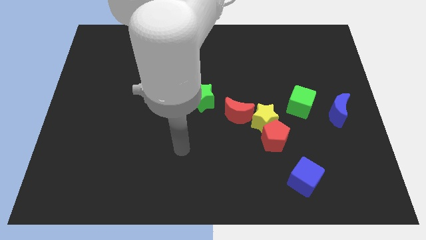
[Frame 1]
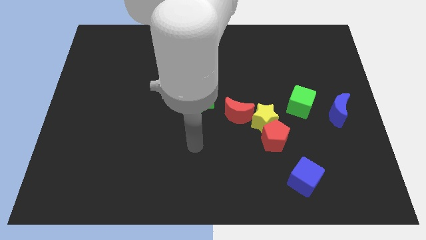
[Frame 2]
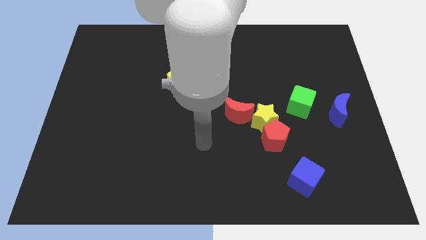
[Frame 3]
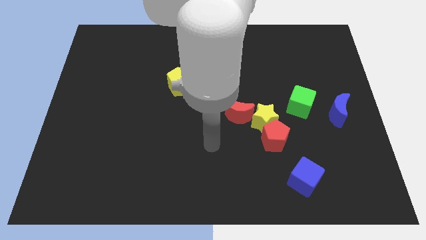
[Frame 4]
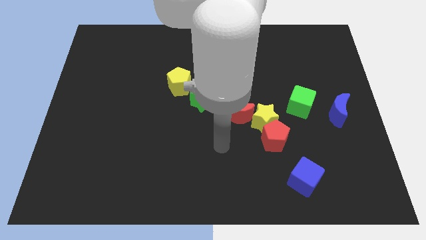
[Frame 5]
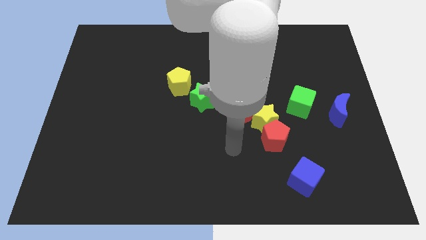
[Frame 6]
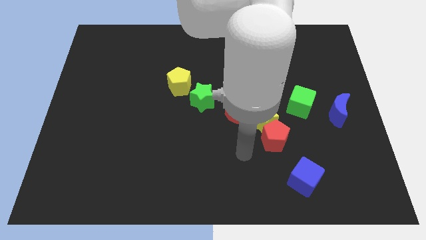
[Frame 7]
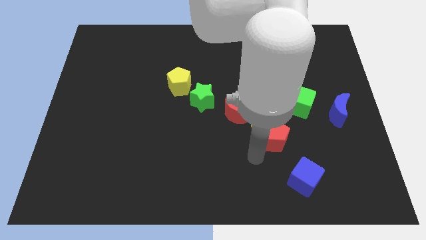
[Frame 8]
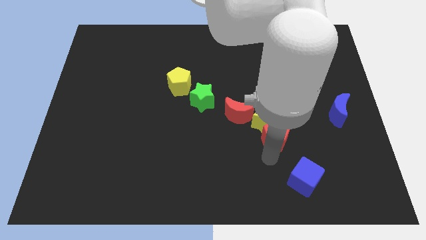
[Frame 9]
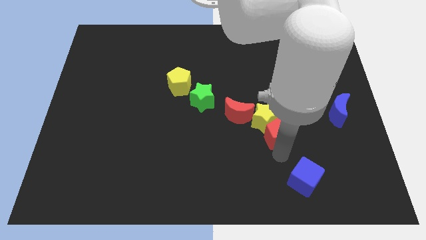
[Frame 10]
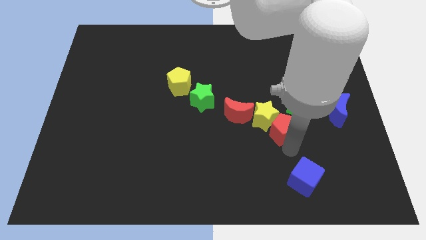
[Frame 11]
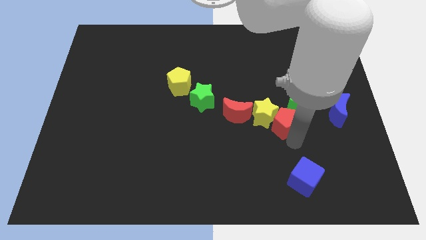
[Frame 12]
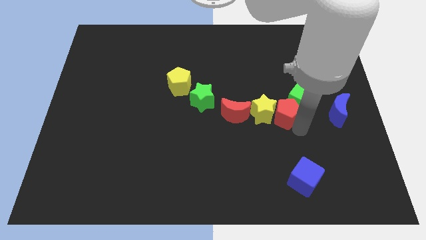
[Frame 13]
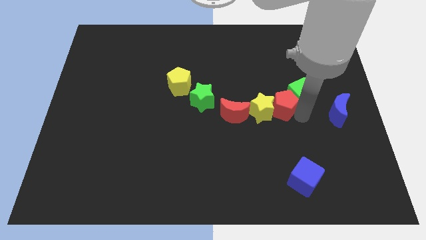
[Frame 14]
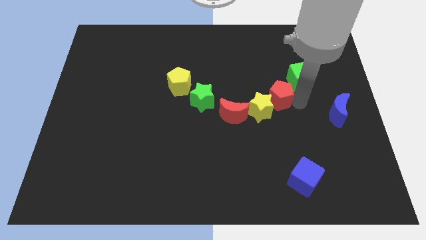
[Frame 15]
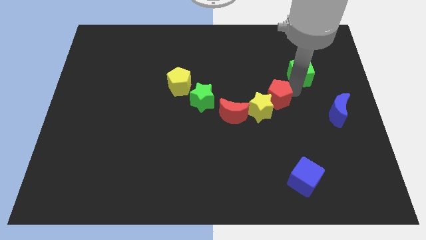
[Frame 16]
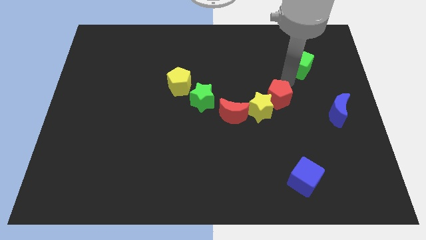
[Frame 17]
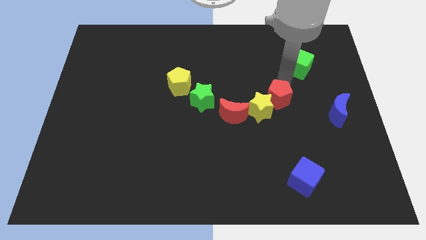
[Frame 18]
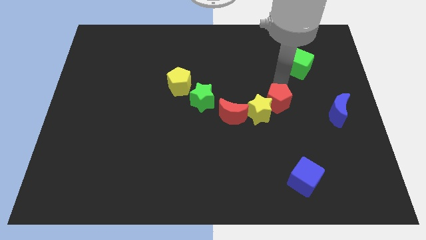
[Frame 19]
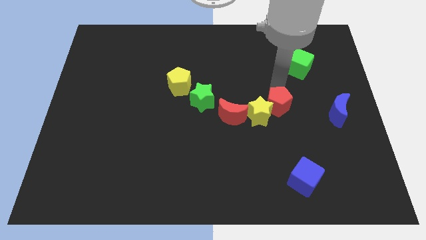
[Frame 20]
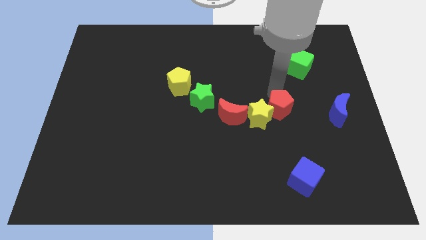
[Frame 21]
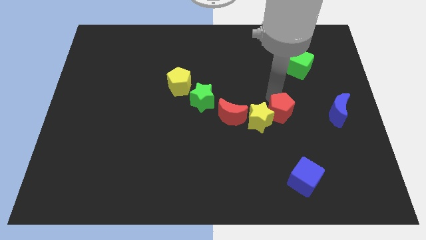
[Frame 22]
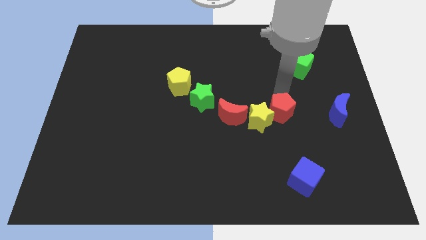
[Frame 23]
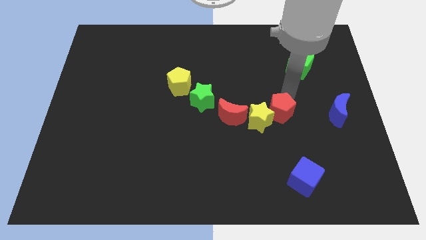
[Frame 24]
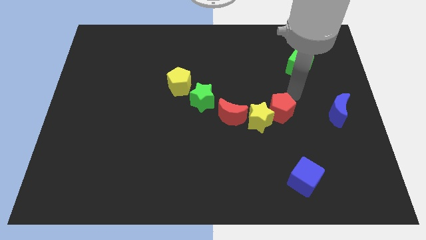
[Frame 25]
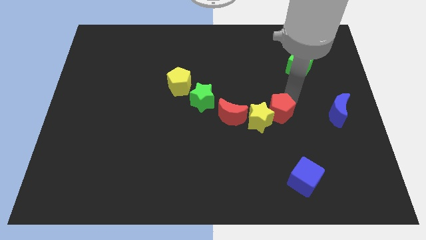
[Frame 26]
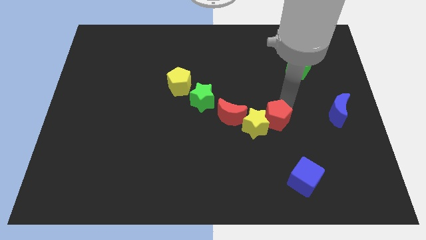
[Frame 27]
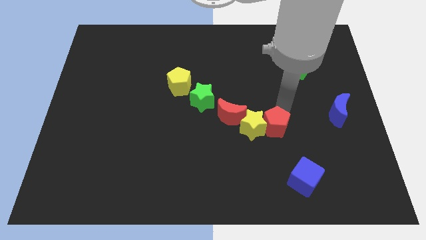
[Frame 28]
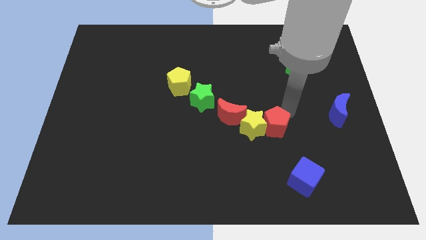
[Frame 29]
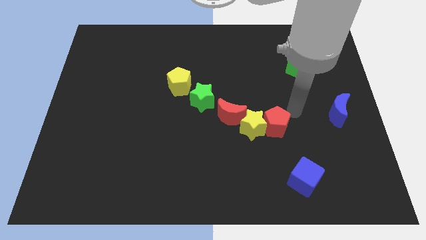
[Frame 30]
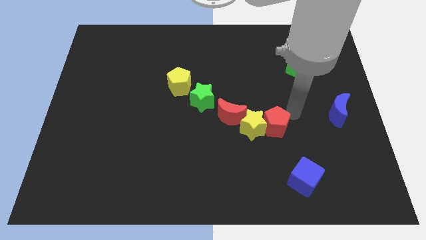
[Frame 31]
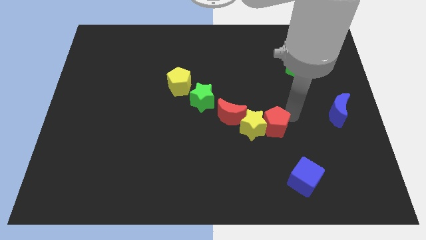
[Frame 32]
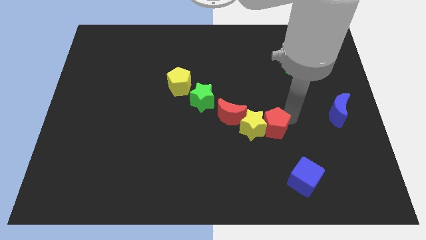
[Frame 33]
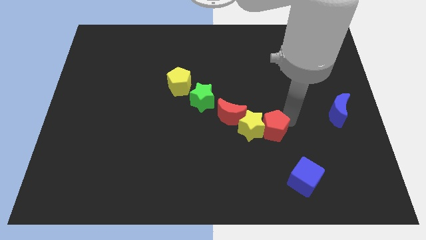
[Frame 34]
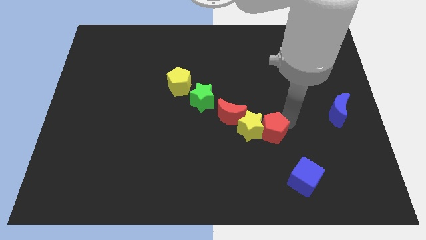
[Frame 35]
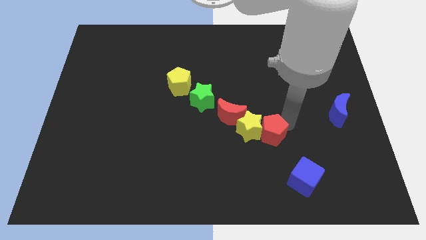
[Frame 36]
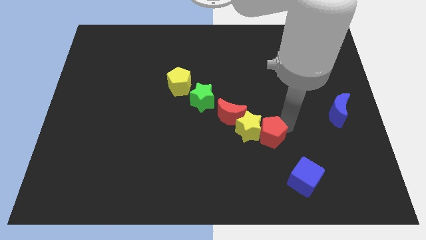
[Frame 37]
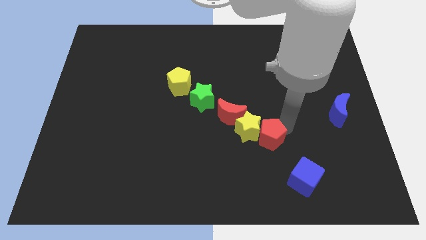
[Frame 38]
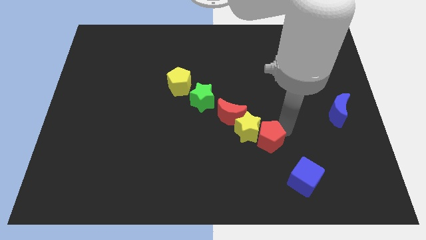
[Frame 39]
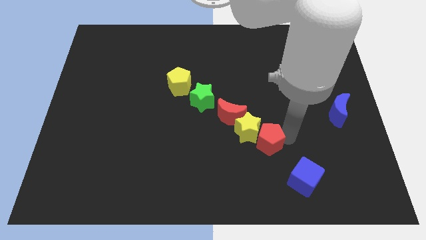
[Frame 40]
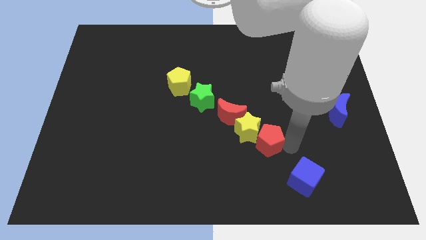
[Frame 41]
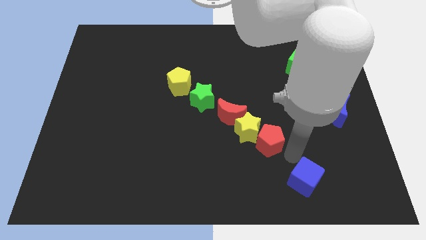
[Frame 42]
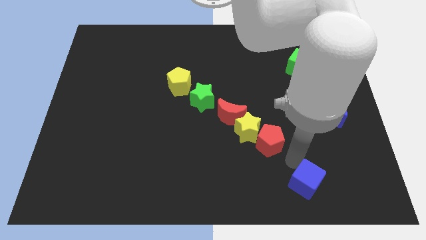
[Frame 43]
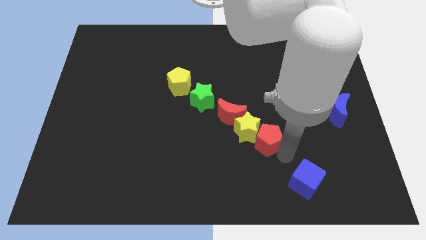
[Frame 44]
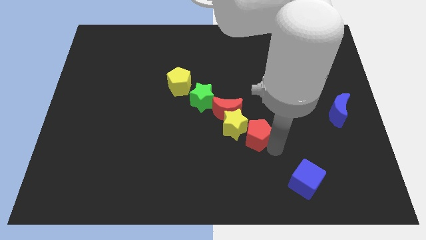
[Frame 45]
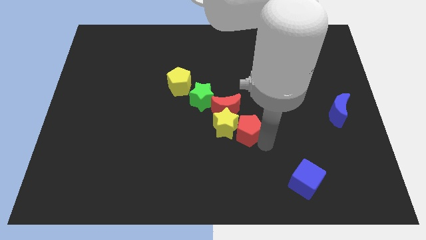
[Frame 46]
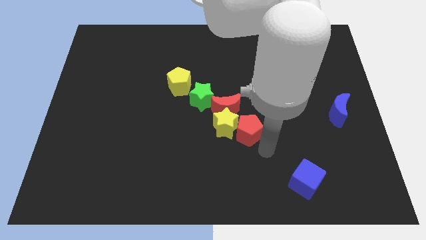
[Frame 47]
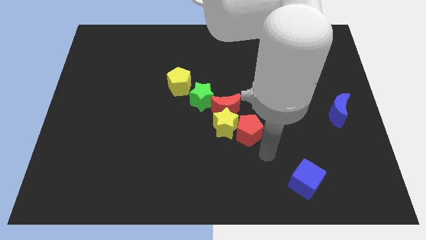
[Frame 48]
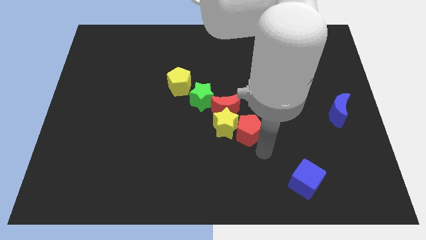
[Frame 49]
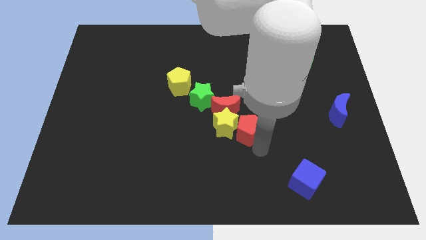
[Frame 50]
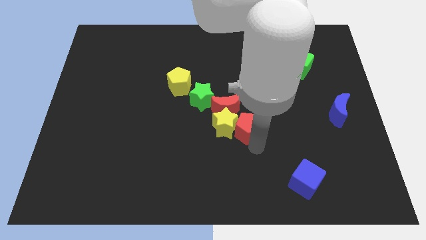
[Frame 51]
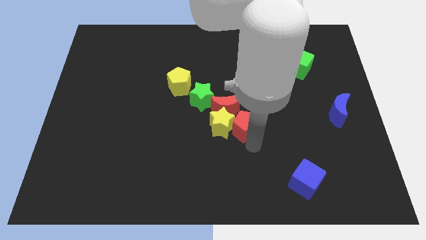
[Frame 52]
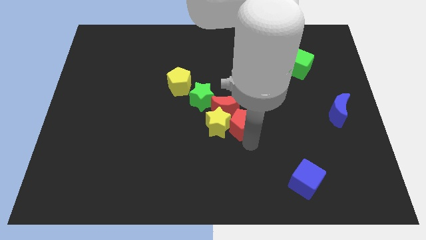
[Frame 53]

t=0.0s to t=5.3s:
push the red pentagon to the red moon

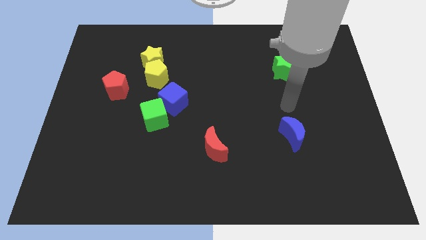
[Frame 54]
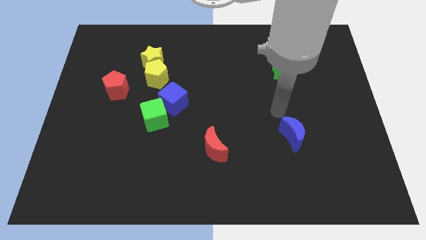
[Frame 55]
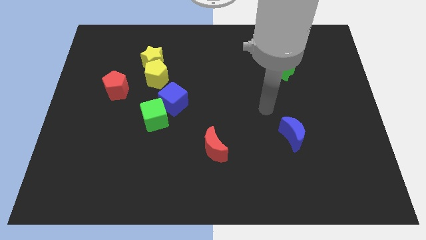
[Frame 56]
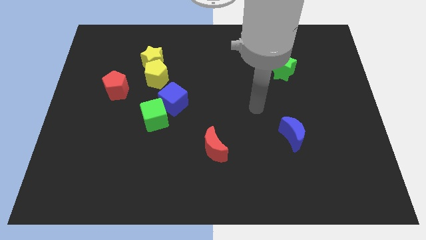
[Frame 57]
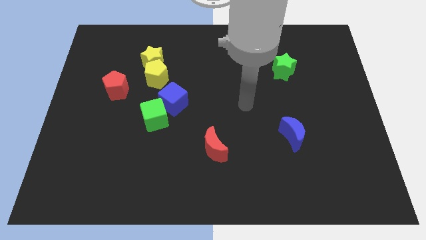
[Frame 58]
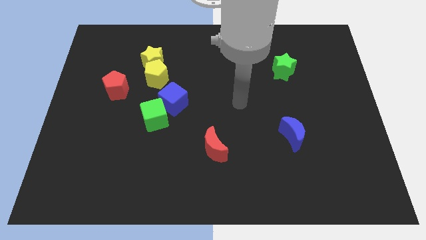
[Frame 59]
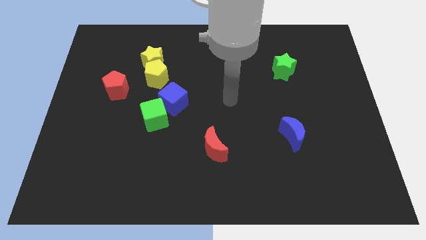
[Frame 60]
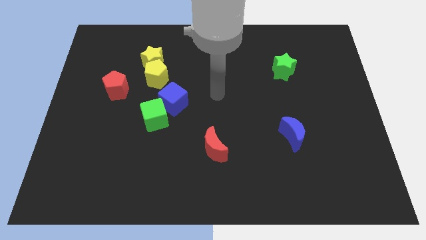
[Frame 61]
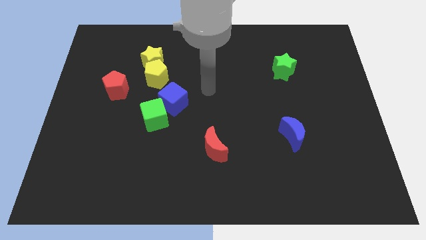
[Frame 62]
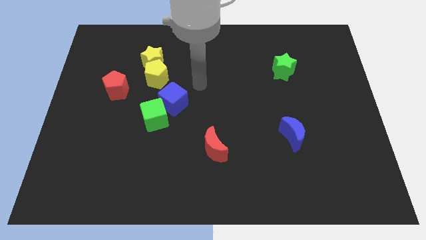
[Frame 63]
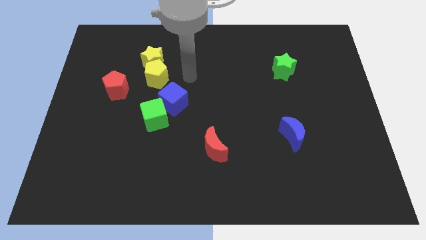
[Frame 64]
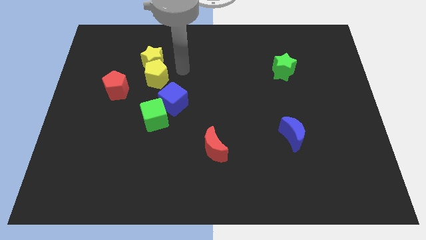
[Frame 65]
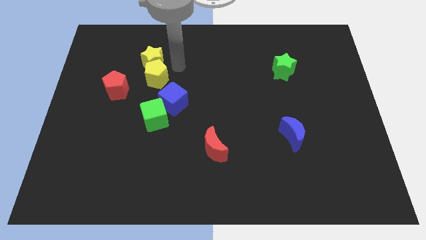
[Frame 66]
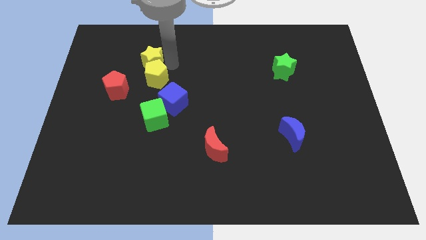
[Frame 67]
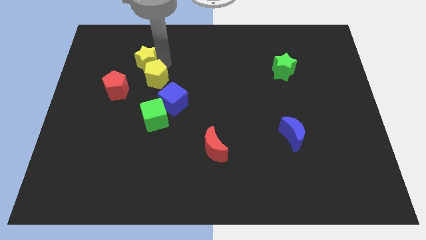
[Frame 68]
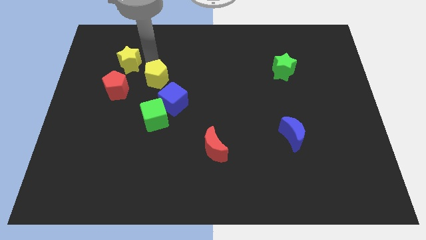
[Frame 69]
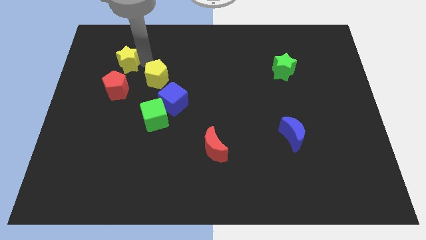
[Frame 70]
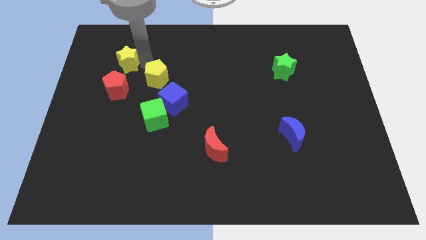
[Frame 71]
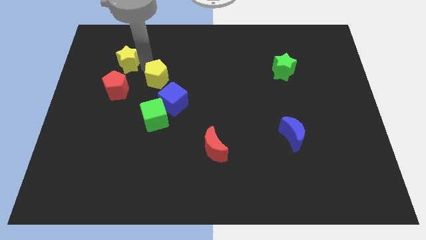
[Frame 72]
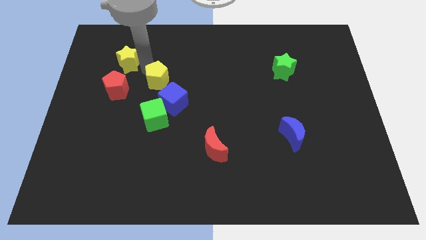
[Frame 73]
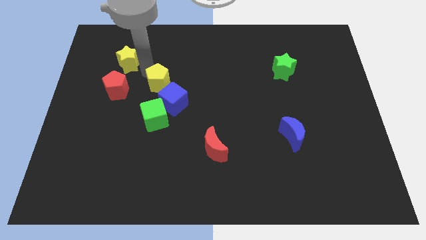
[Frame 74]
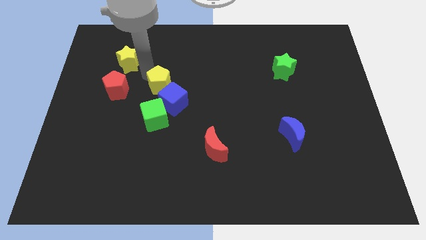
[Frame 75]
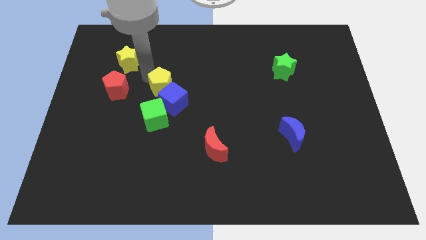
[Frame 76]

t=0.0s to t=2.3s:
slide the yellow pentagon close to the blue cube

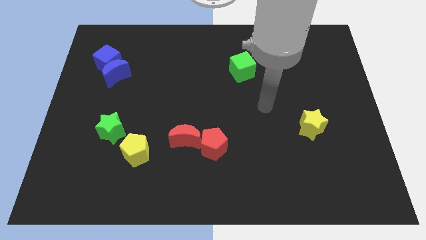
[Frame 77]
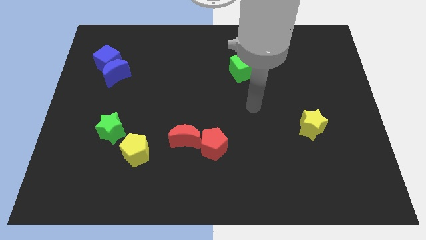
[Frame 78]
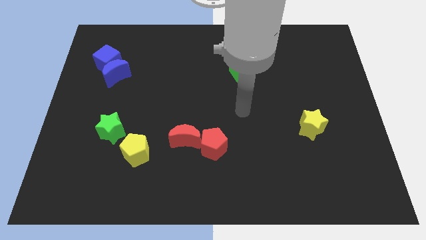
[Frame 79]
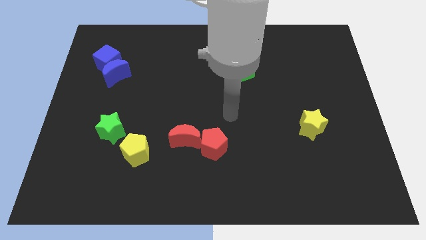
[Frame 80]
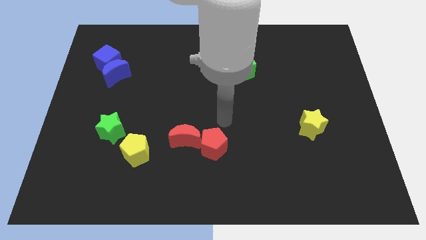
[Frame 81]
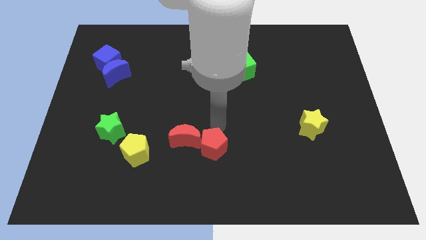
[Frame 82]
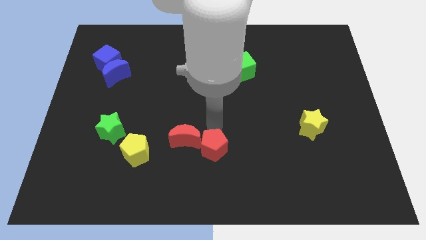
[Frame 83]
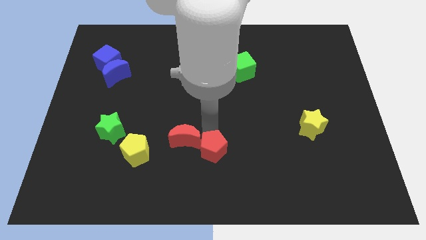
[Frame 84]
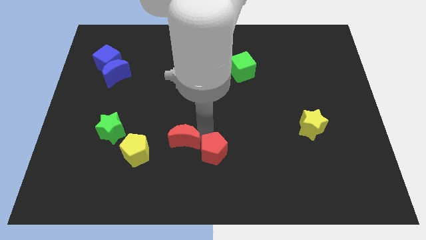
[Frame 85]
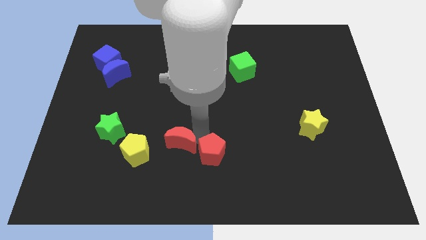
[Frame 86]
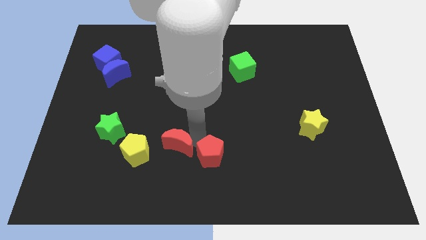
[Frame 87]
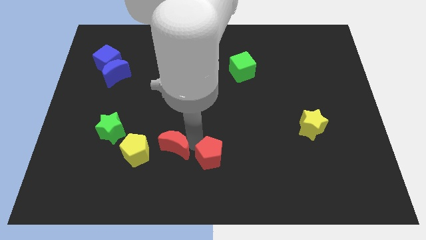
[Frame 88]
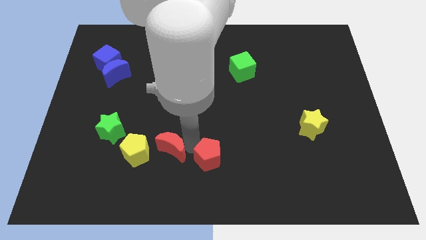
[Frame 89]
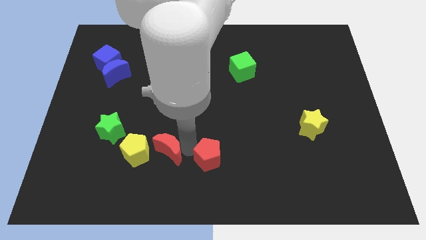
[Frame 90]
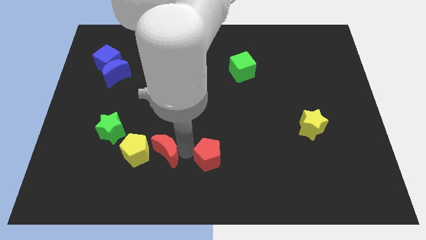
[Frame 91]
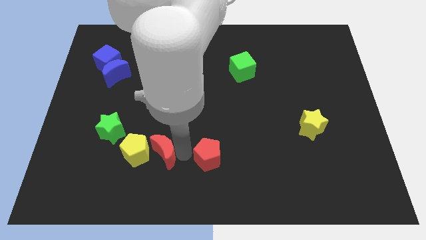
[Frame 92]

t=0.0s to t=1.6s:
move the red moon close to the yellow pentagon
